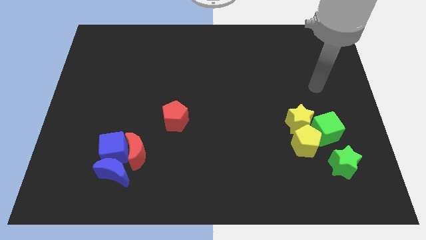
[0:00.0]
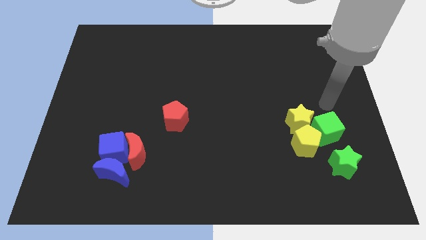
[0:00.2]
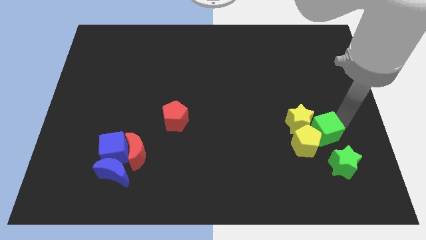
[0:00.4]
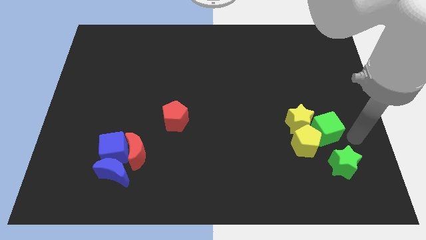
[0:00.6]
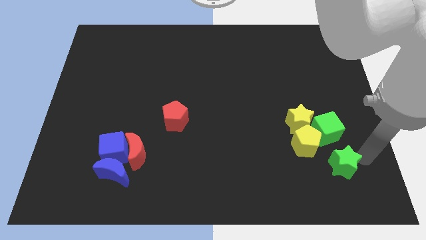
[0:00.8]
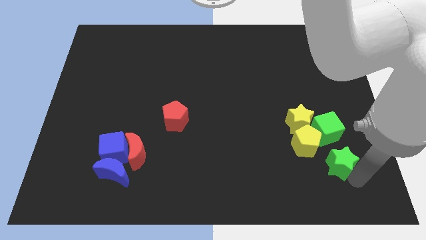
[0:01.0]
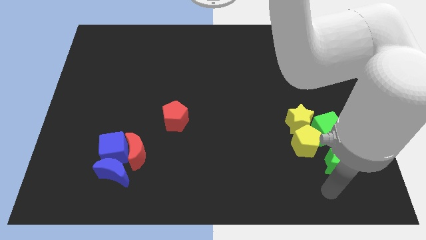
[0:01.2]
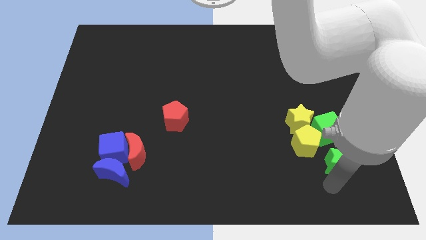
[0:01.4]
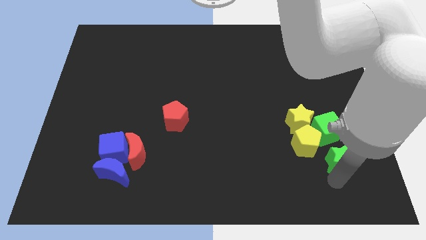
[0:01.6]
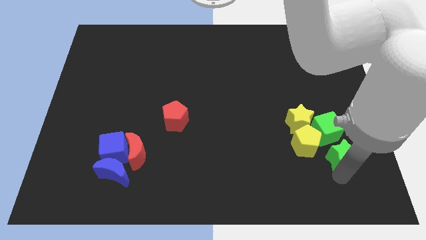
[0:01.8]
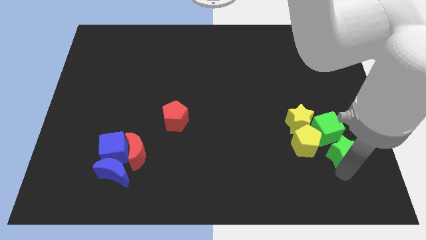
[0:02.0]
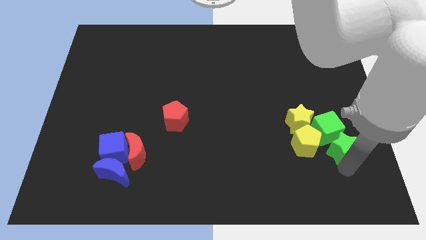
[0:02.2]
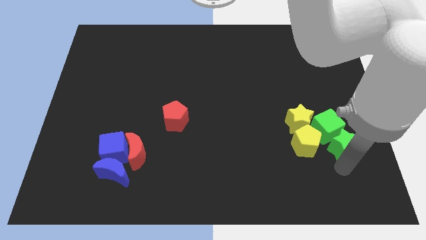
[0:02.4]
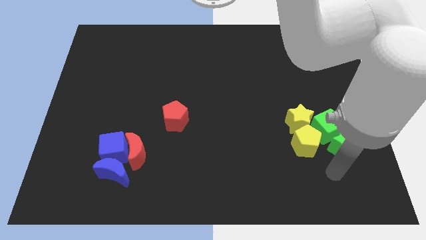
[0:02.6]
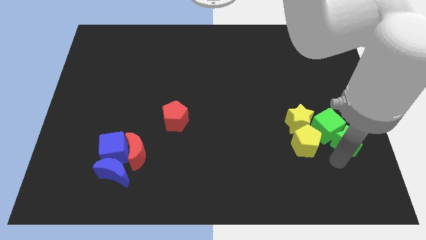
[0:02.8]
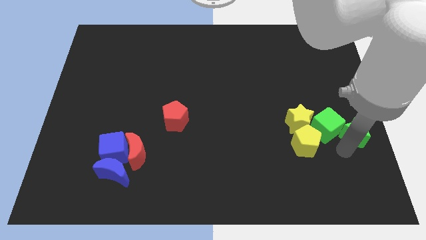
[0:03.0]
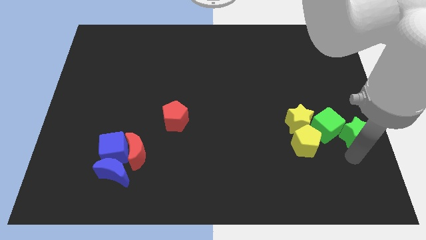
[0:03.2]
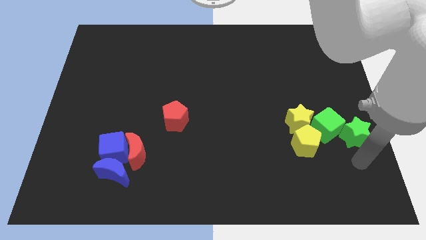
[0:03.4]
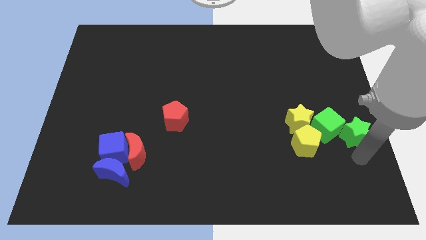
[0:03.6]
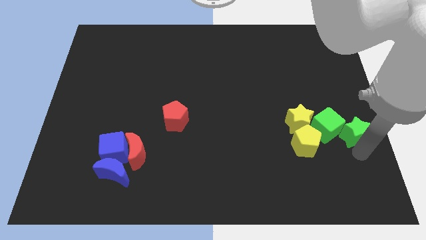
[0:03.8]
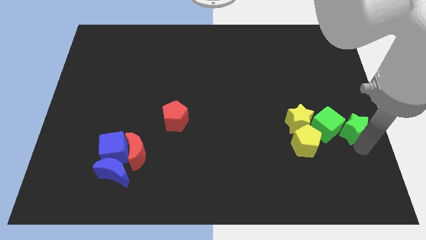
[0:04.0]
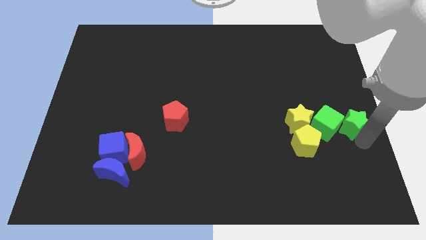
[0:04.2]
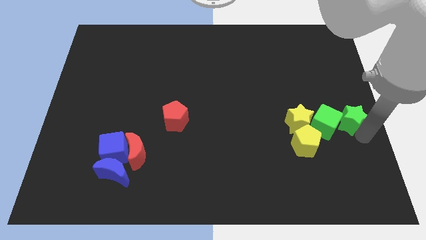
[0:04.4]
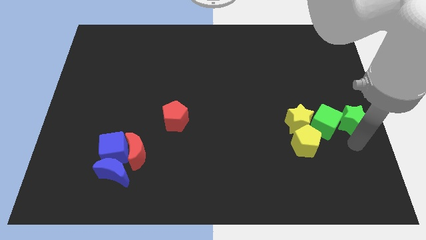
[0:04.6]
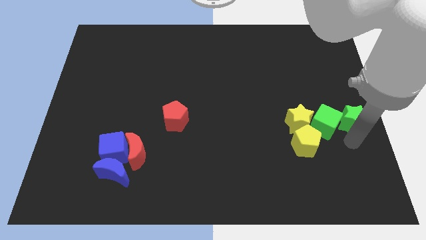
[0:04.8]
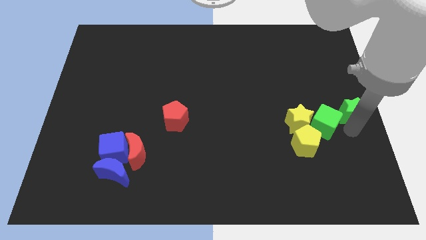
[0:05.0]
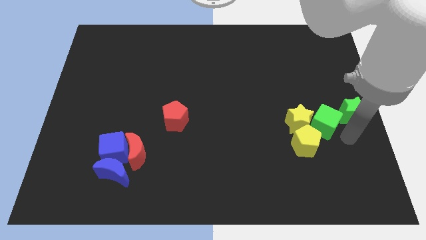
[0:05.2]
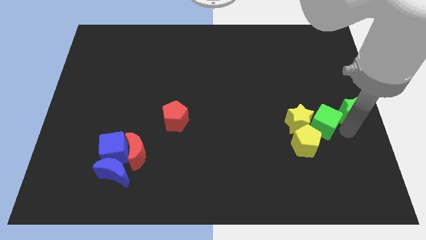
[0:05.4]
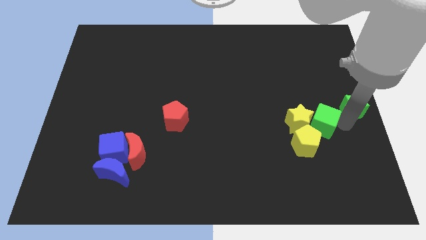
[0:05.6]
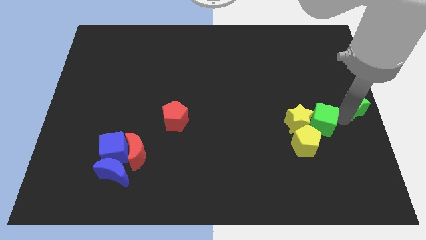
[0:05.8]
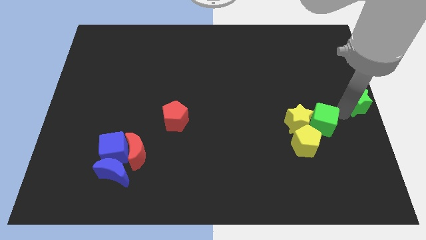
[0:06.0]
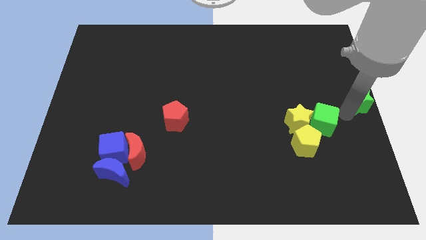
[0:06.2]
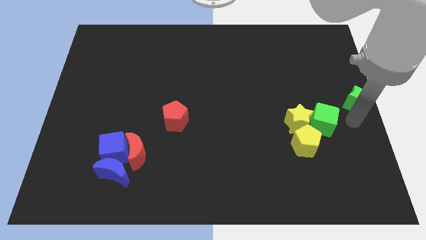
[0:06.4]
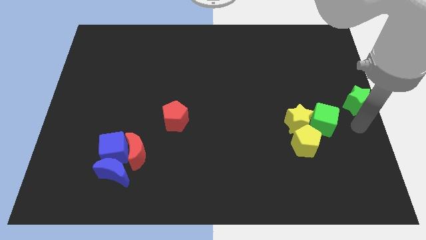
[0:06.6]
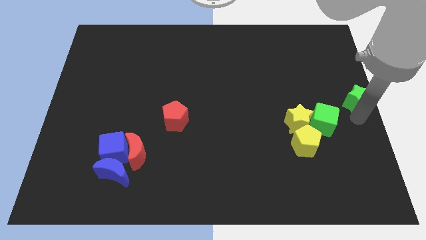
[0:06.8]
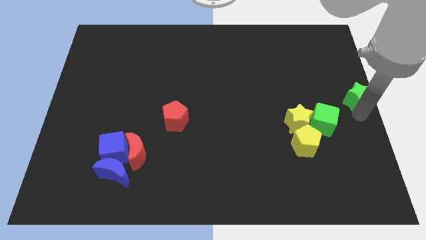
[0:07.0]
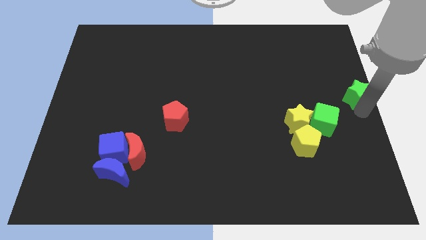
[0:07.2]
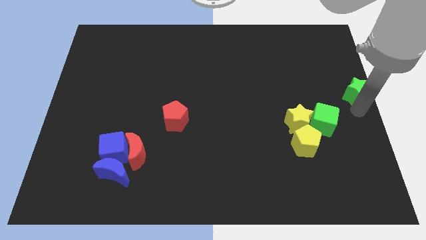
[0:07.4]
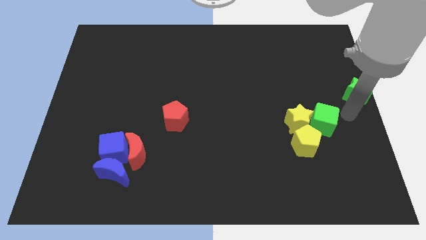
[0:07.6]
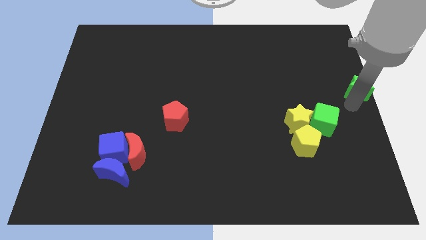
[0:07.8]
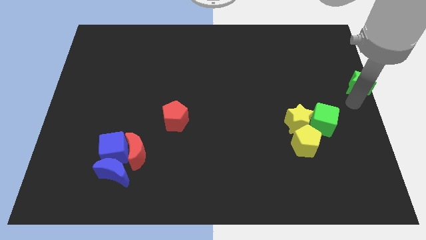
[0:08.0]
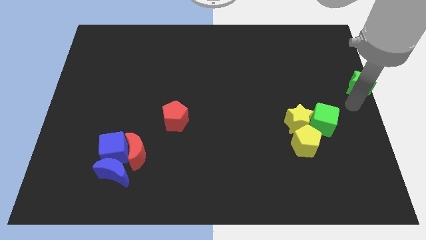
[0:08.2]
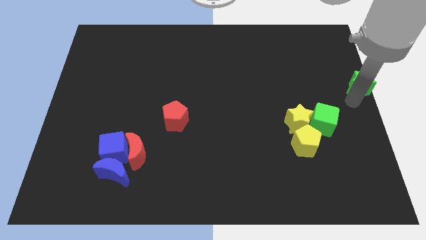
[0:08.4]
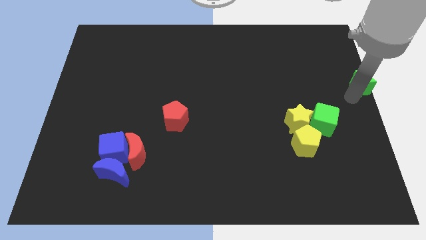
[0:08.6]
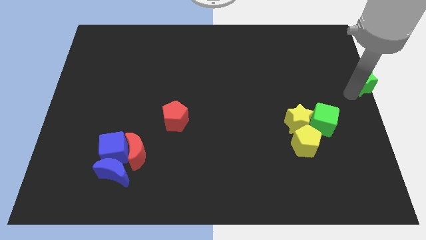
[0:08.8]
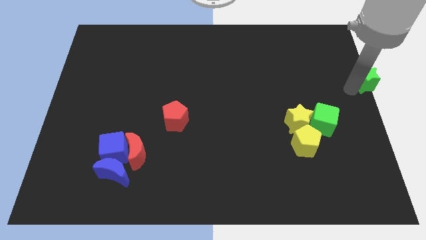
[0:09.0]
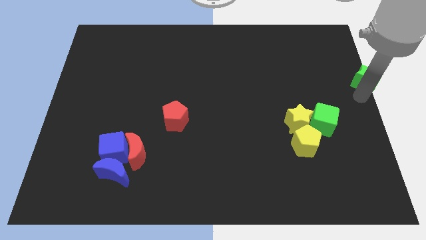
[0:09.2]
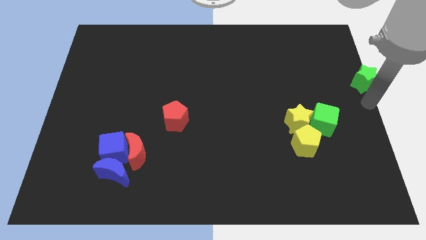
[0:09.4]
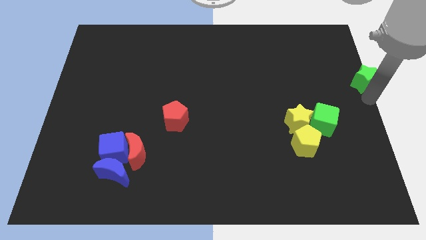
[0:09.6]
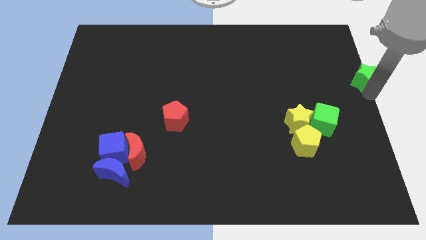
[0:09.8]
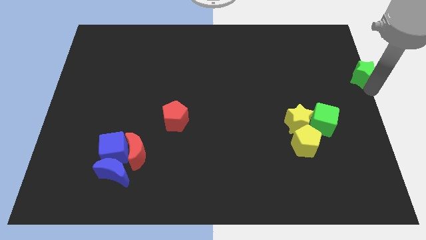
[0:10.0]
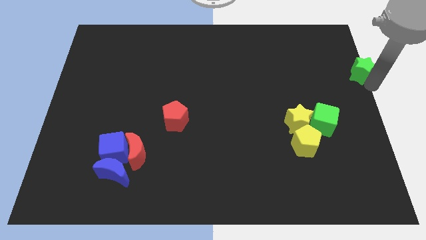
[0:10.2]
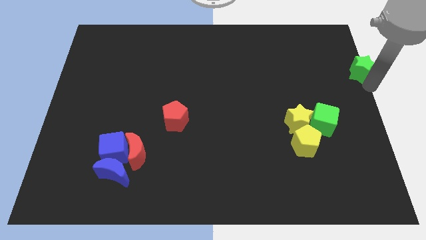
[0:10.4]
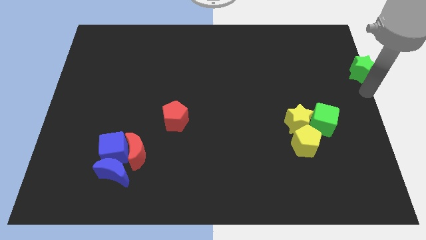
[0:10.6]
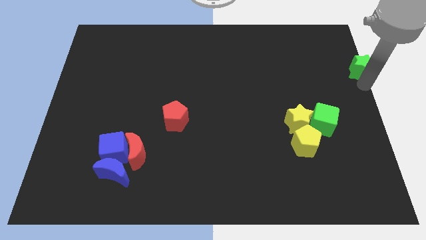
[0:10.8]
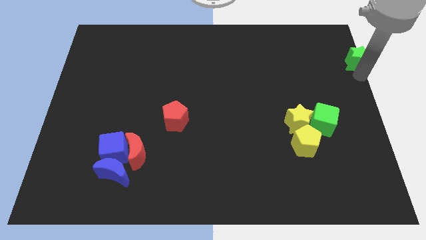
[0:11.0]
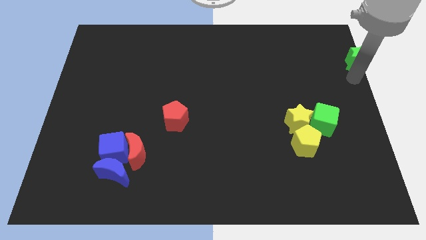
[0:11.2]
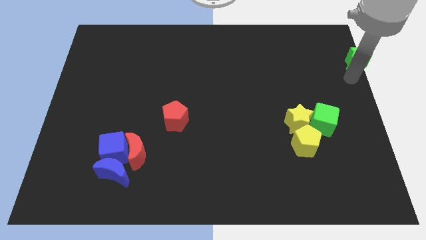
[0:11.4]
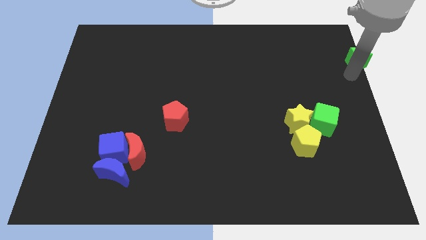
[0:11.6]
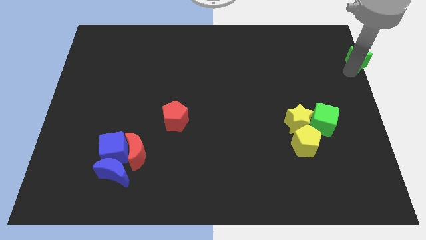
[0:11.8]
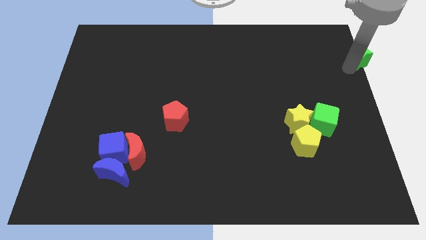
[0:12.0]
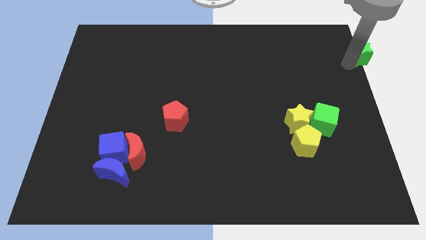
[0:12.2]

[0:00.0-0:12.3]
slide the green star to the upper right corner

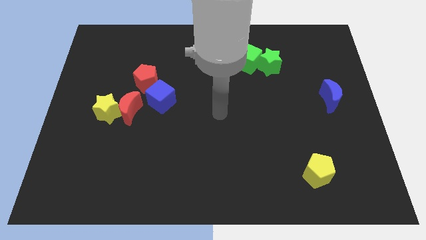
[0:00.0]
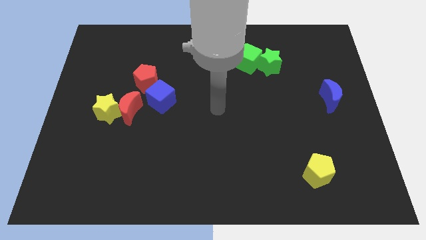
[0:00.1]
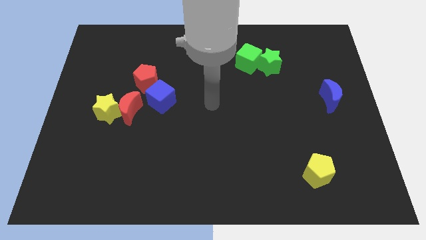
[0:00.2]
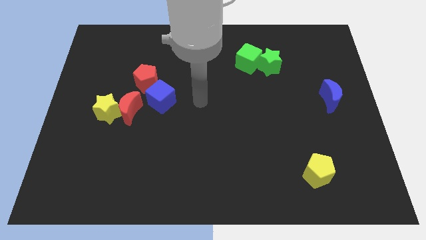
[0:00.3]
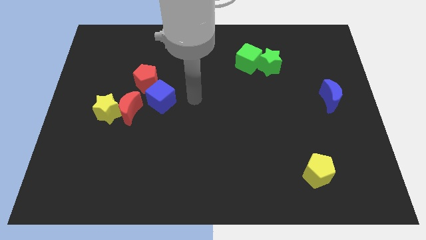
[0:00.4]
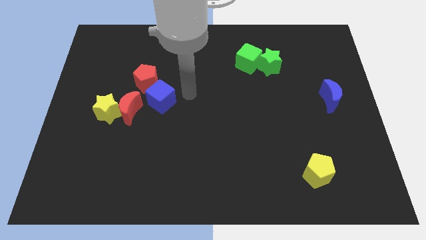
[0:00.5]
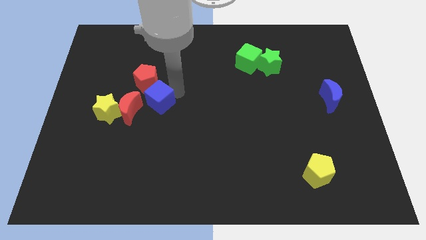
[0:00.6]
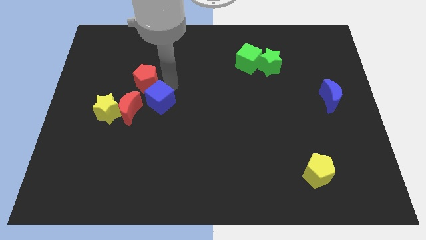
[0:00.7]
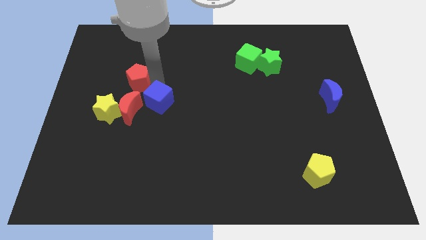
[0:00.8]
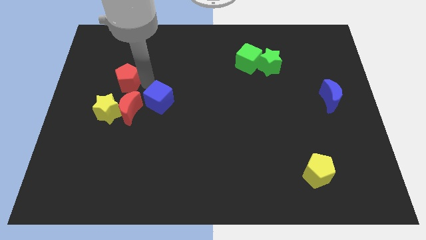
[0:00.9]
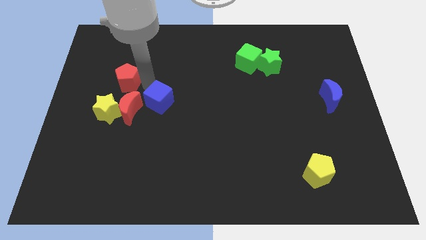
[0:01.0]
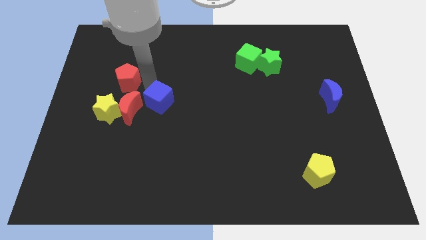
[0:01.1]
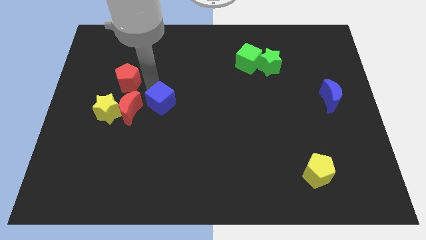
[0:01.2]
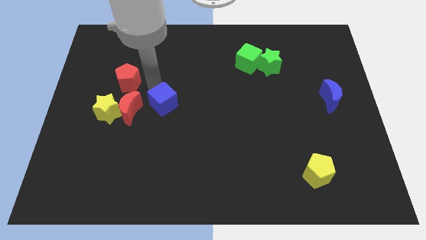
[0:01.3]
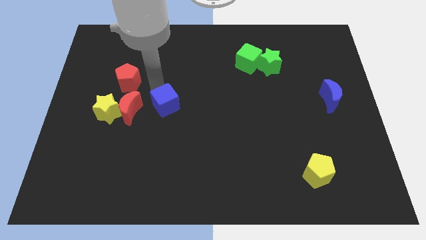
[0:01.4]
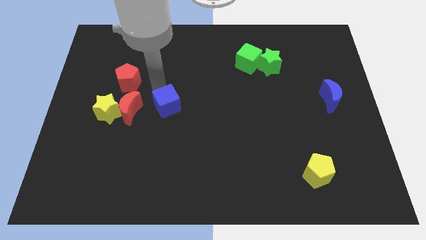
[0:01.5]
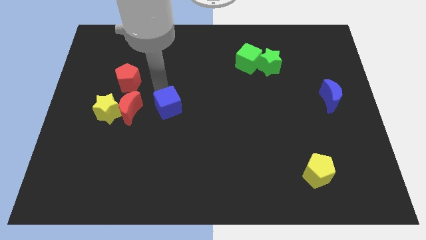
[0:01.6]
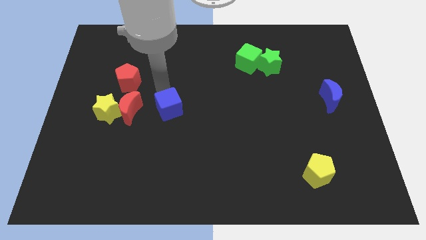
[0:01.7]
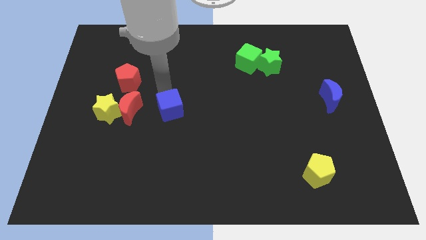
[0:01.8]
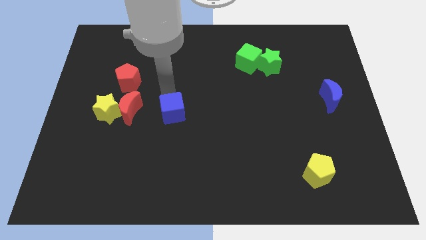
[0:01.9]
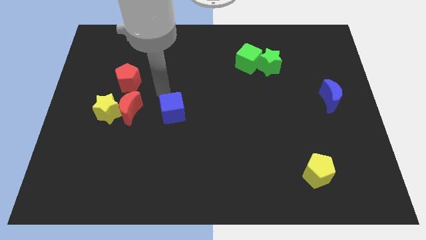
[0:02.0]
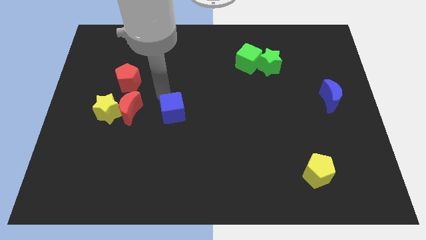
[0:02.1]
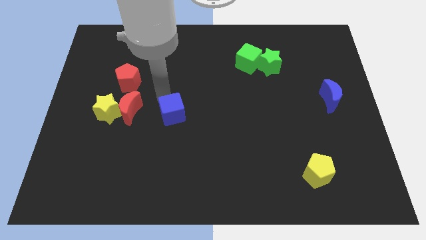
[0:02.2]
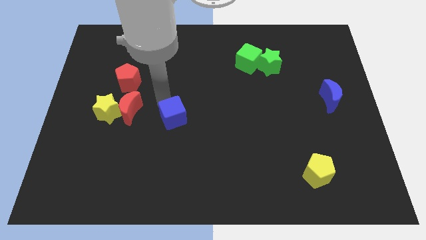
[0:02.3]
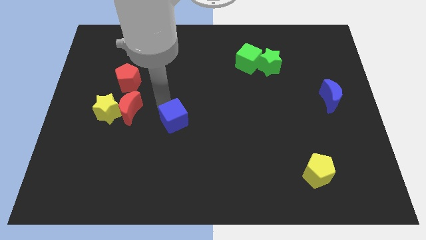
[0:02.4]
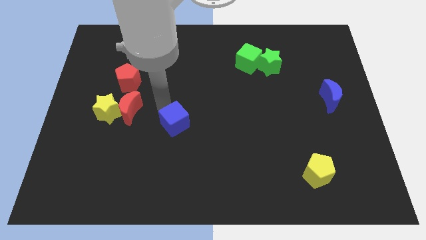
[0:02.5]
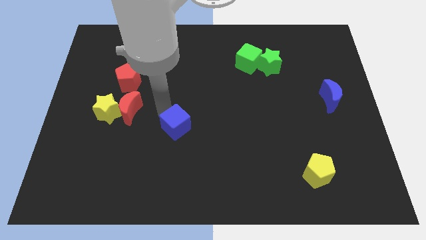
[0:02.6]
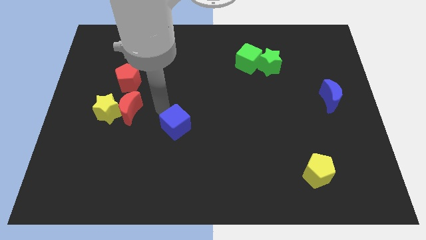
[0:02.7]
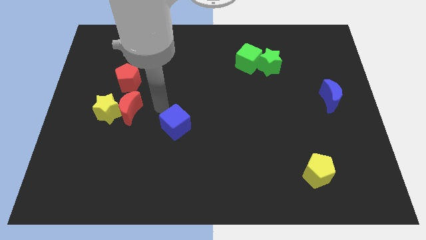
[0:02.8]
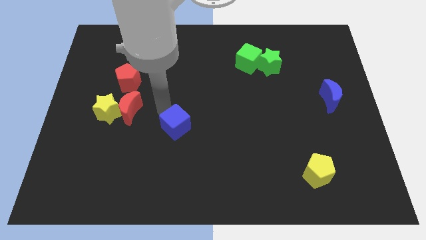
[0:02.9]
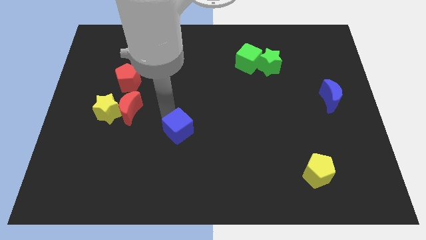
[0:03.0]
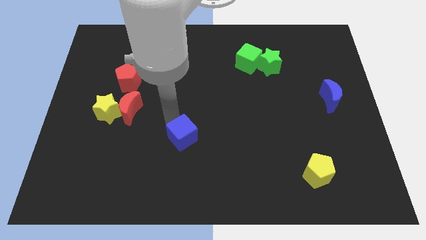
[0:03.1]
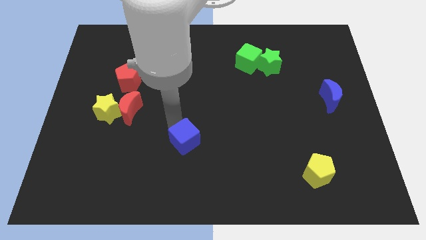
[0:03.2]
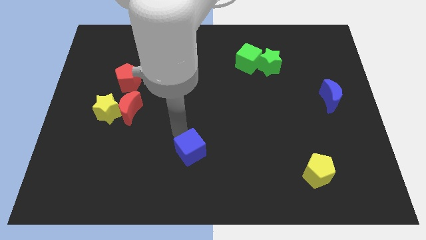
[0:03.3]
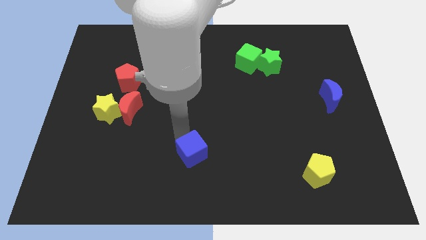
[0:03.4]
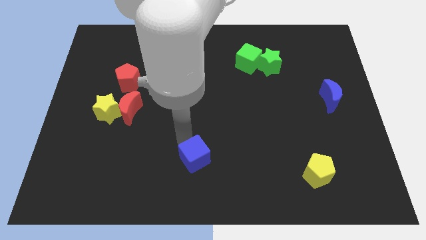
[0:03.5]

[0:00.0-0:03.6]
put the blue cube to the bottom
